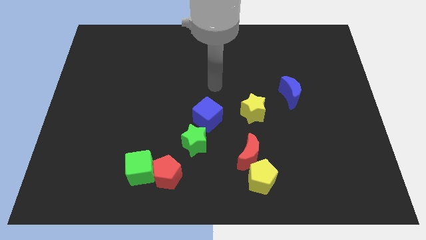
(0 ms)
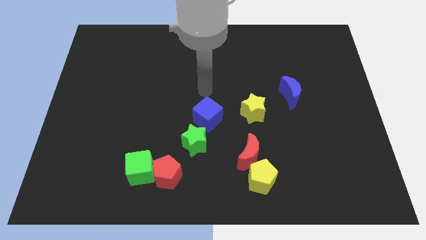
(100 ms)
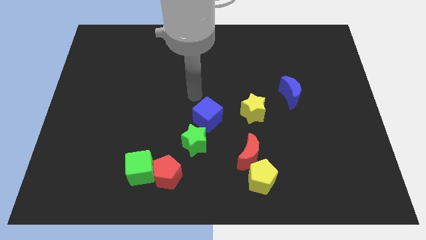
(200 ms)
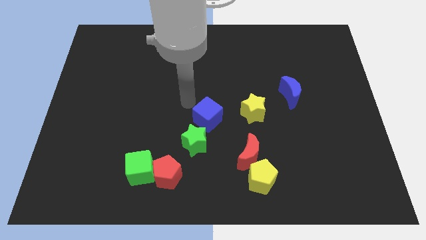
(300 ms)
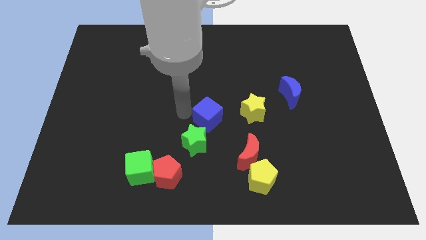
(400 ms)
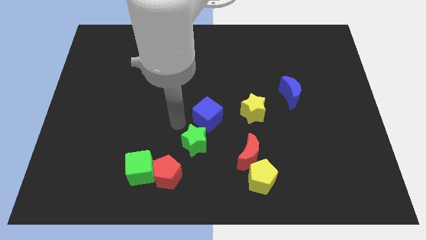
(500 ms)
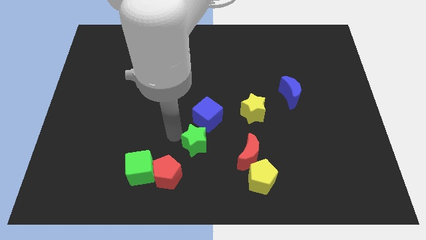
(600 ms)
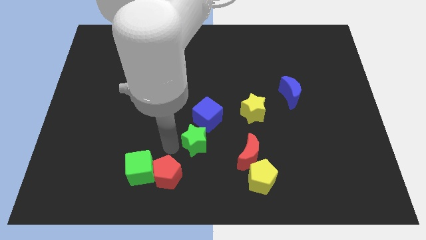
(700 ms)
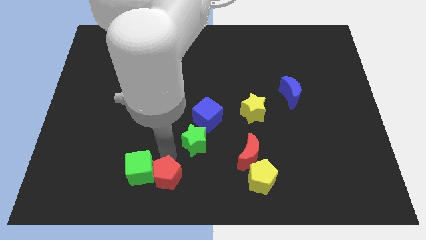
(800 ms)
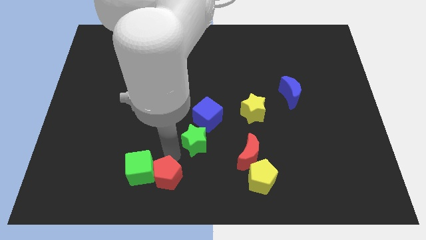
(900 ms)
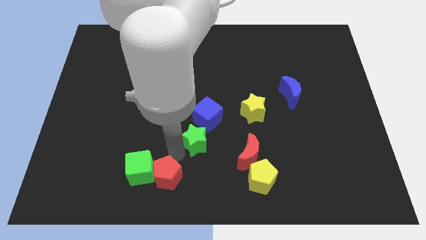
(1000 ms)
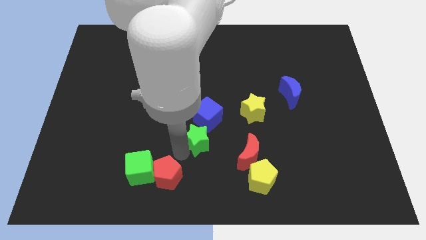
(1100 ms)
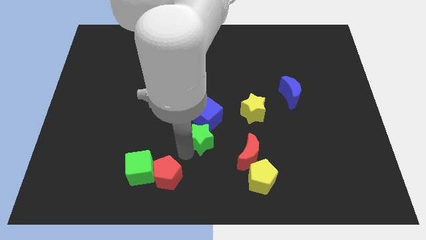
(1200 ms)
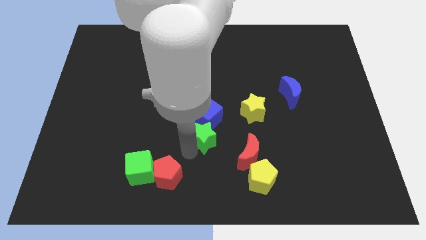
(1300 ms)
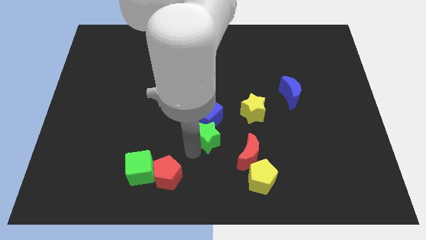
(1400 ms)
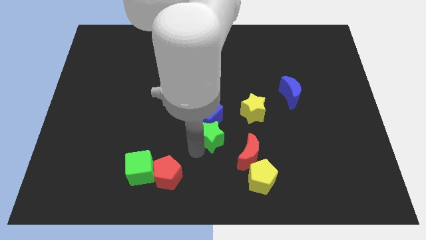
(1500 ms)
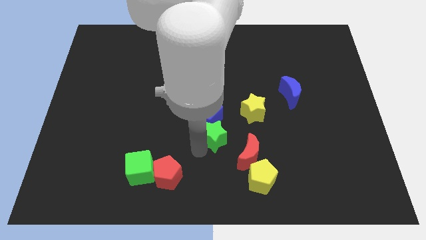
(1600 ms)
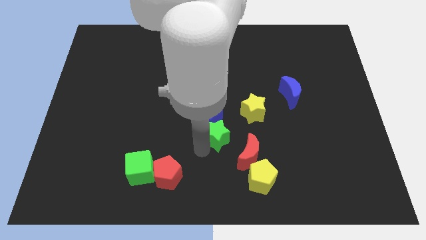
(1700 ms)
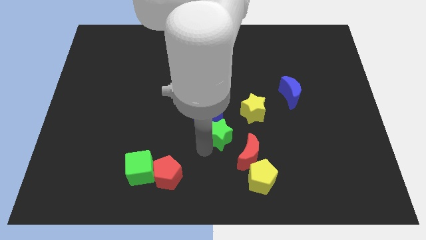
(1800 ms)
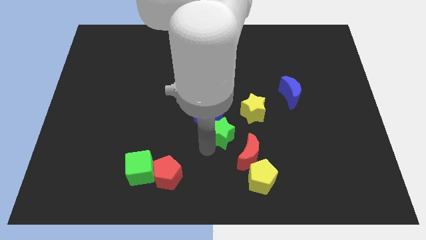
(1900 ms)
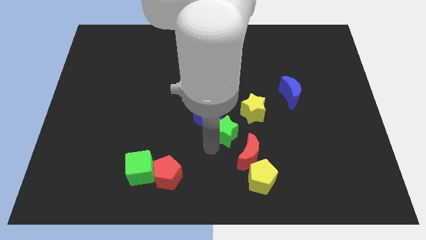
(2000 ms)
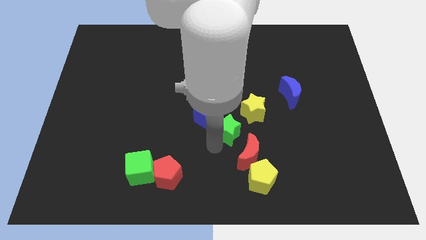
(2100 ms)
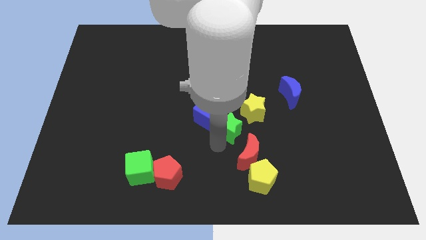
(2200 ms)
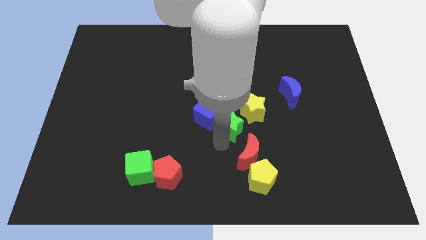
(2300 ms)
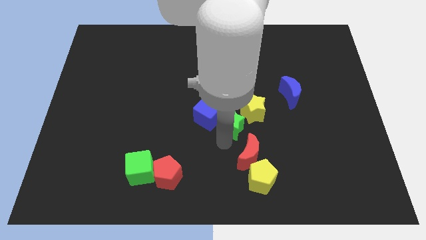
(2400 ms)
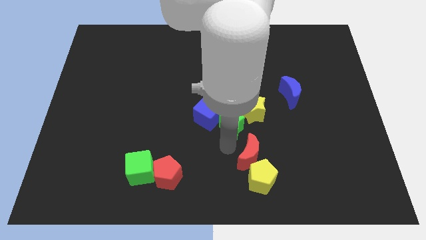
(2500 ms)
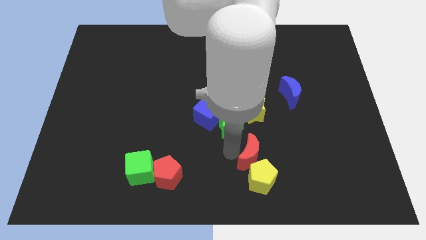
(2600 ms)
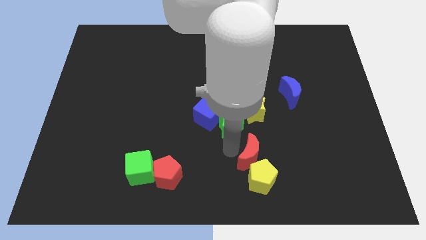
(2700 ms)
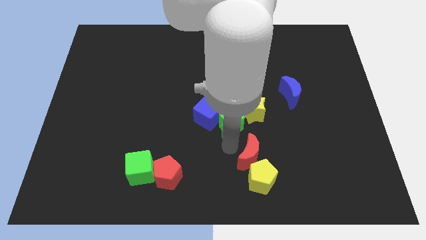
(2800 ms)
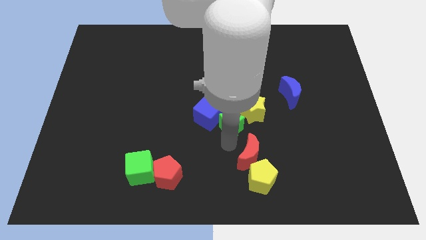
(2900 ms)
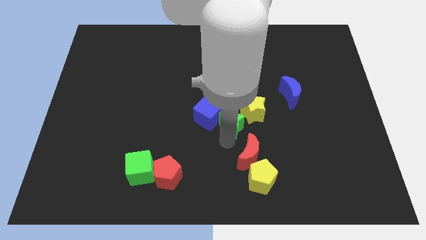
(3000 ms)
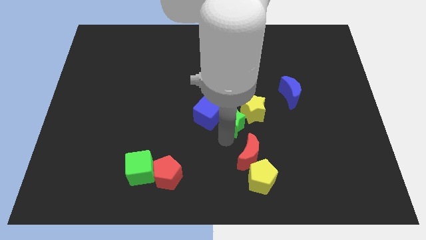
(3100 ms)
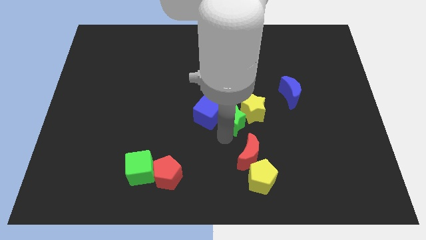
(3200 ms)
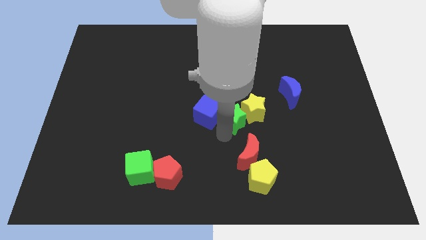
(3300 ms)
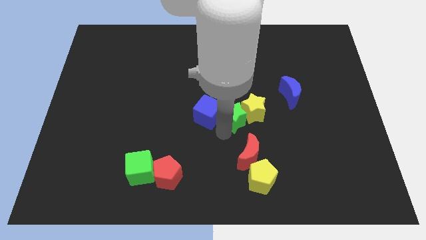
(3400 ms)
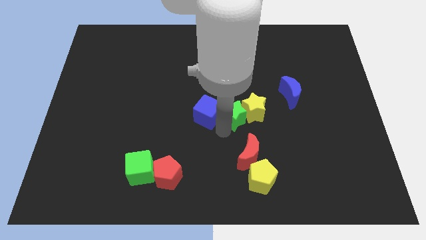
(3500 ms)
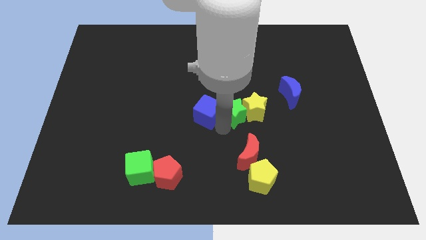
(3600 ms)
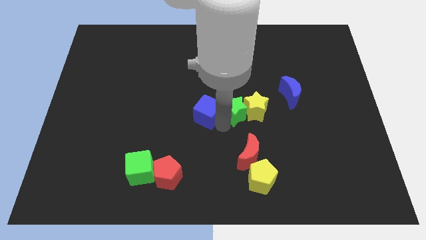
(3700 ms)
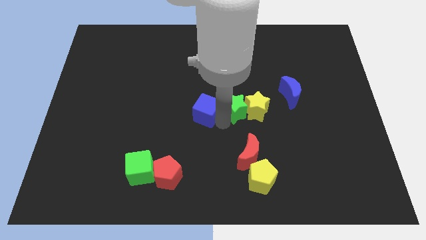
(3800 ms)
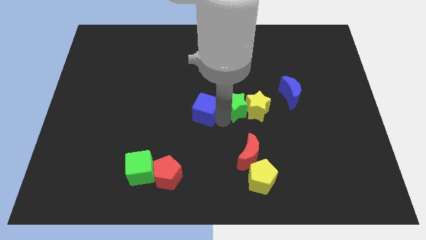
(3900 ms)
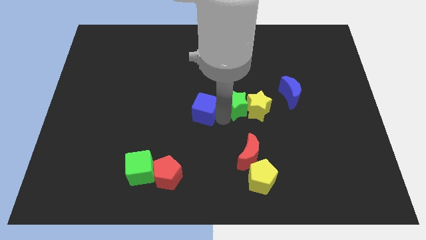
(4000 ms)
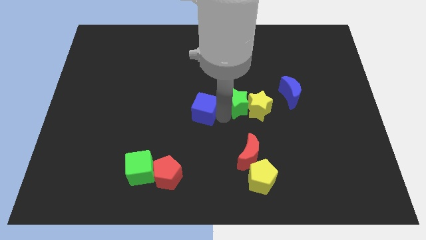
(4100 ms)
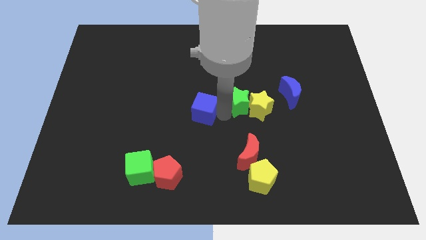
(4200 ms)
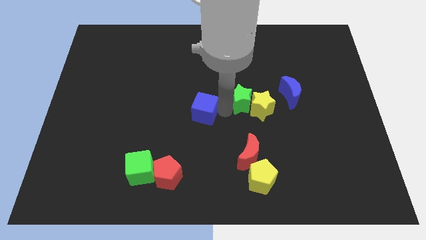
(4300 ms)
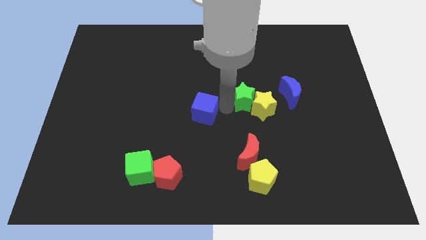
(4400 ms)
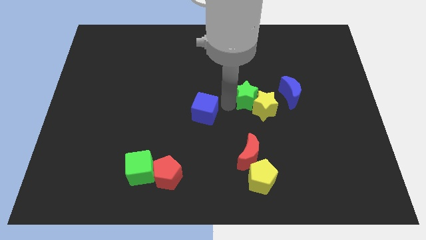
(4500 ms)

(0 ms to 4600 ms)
slide the green star to the top of the yellow star

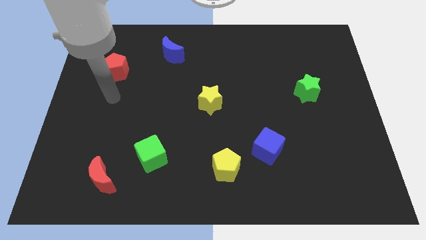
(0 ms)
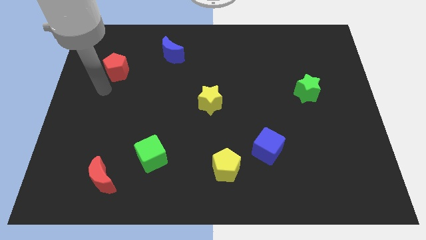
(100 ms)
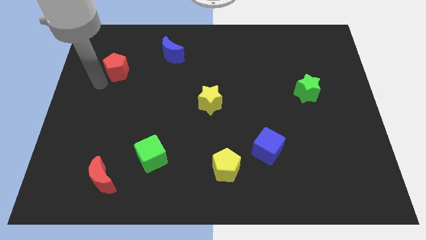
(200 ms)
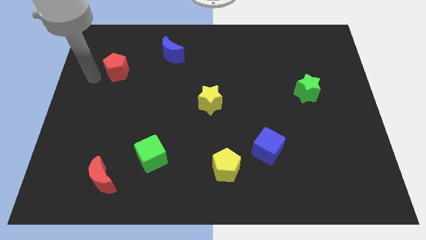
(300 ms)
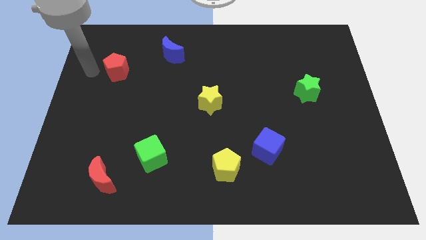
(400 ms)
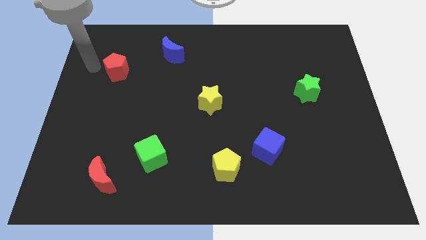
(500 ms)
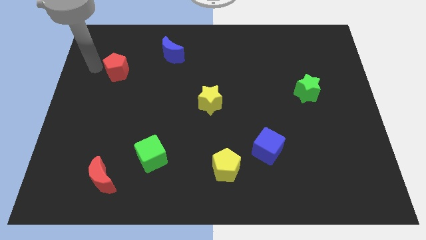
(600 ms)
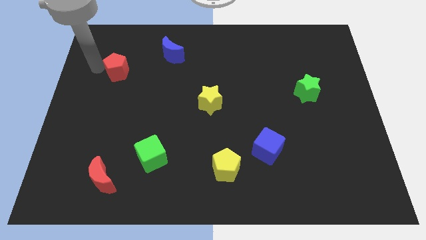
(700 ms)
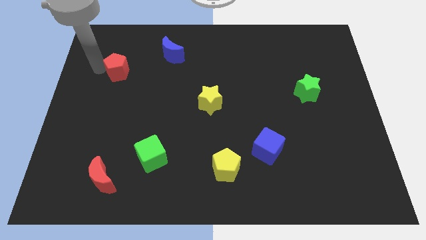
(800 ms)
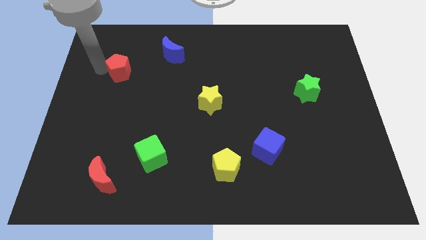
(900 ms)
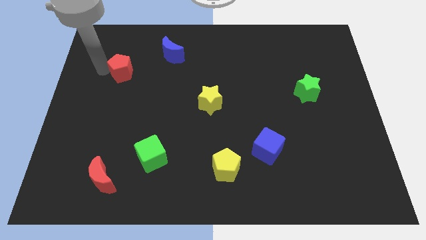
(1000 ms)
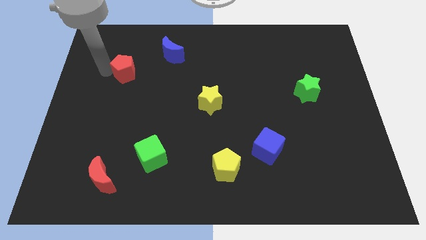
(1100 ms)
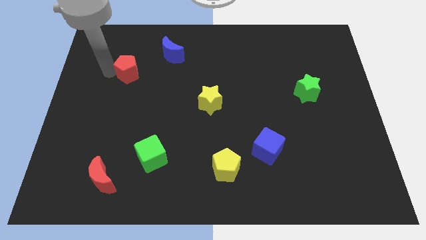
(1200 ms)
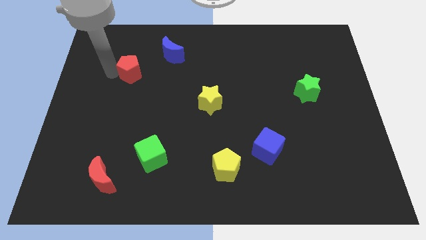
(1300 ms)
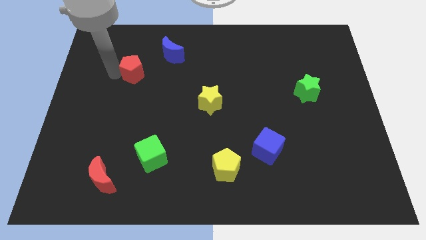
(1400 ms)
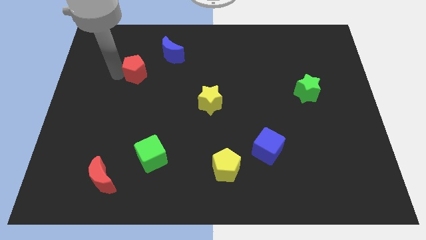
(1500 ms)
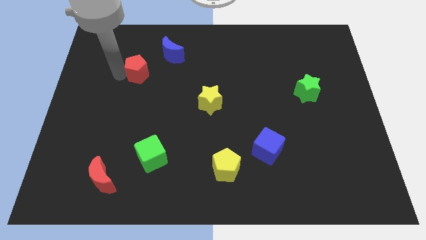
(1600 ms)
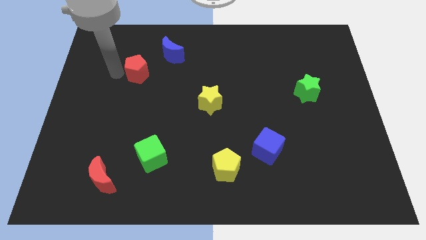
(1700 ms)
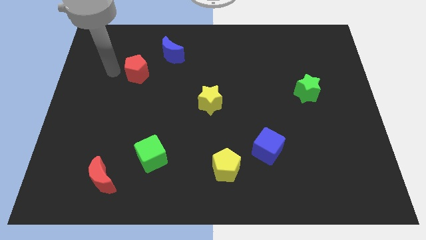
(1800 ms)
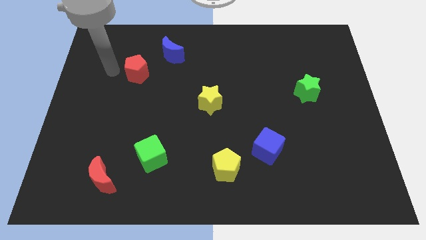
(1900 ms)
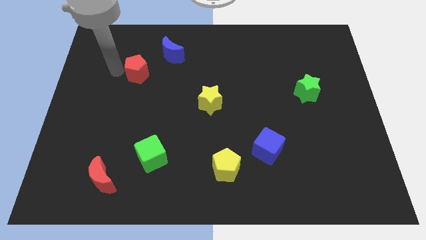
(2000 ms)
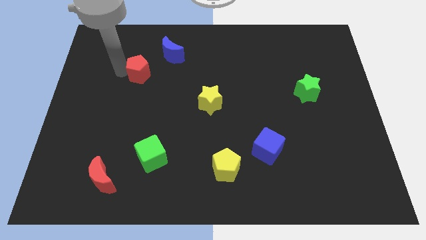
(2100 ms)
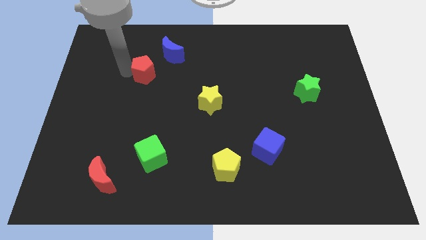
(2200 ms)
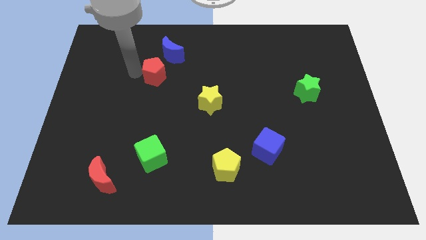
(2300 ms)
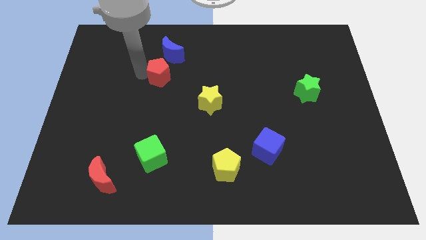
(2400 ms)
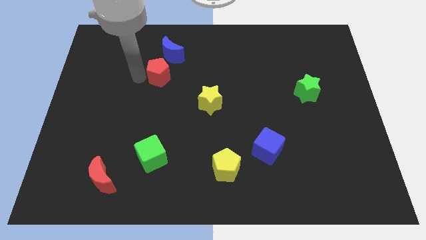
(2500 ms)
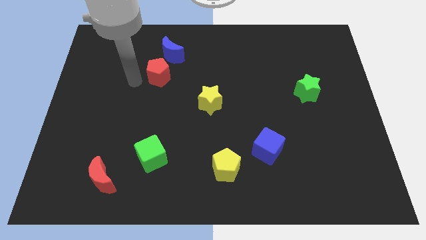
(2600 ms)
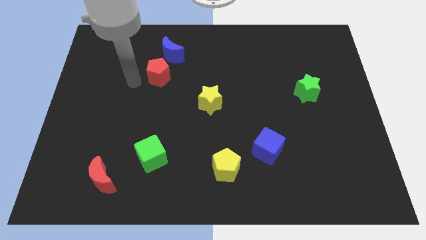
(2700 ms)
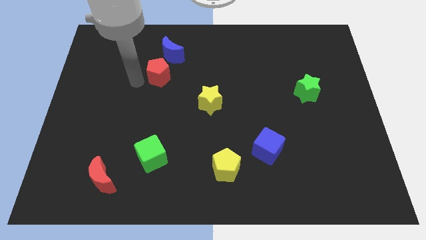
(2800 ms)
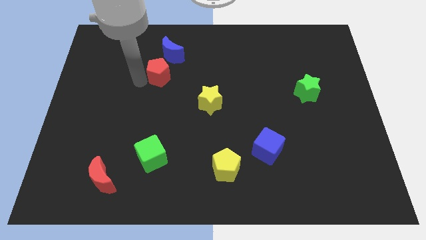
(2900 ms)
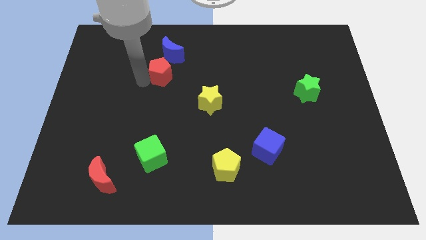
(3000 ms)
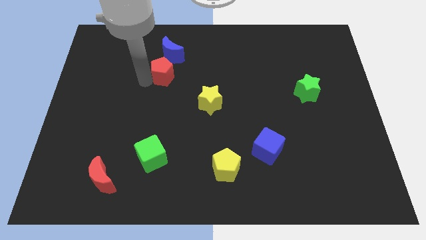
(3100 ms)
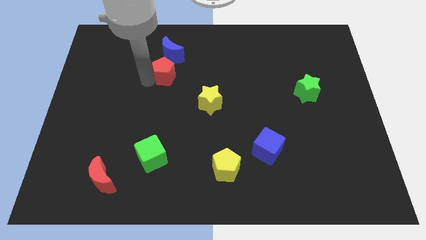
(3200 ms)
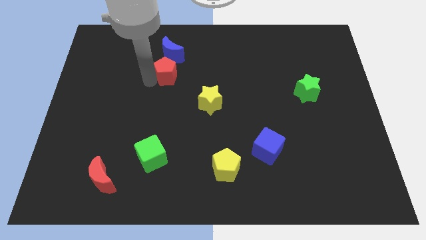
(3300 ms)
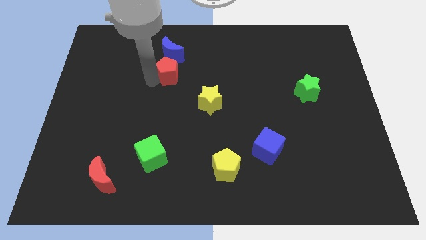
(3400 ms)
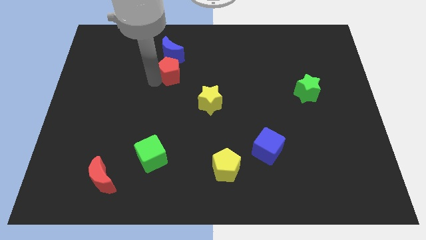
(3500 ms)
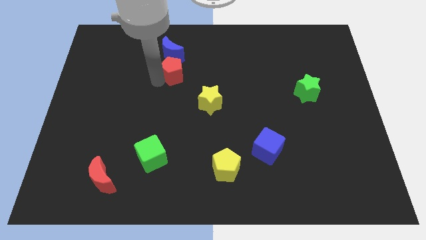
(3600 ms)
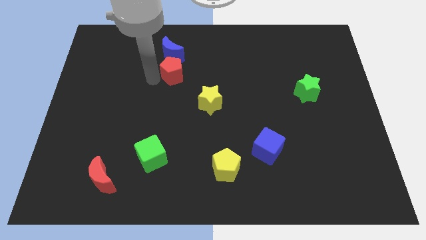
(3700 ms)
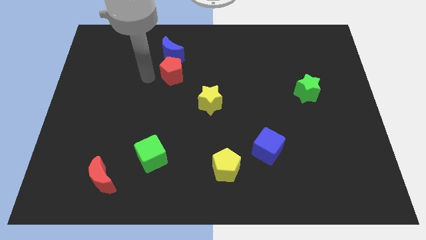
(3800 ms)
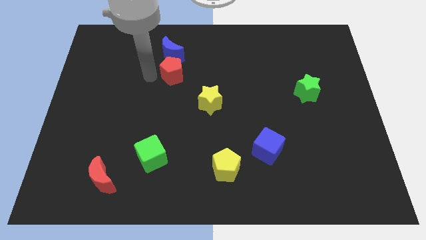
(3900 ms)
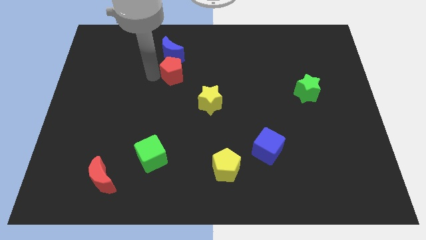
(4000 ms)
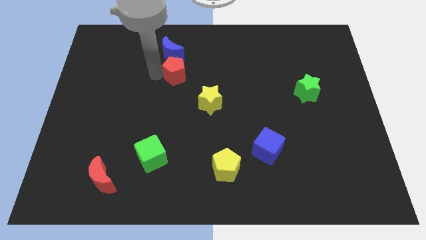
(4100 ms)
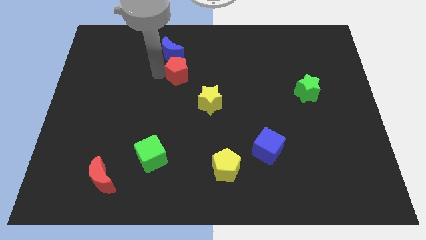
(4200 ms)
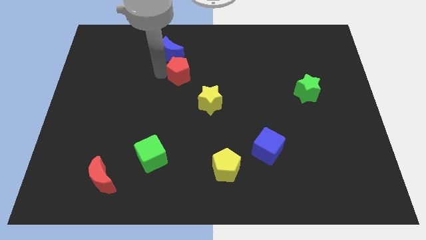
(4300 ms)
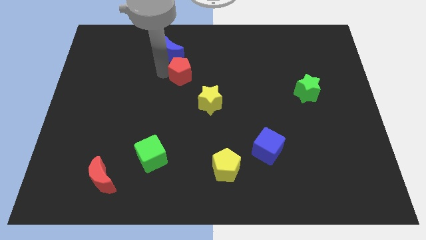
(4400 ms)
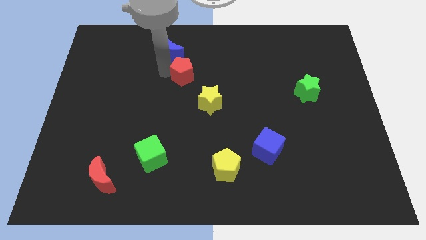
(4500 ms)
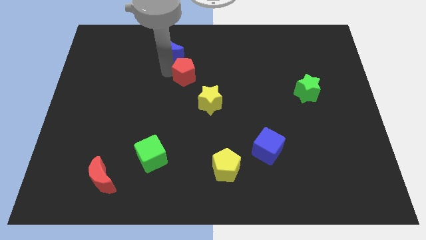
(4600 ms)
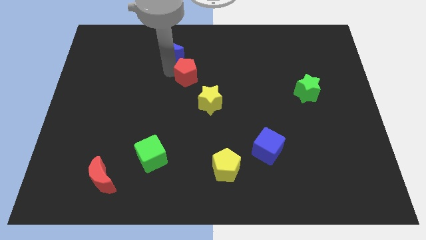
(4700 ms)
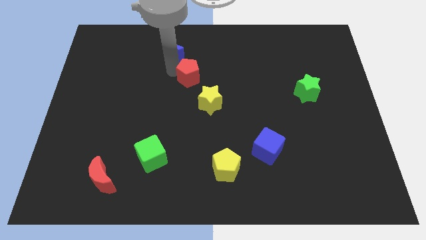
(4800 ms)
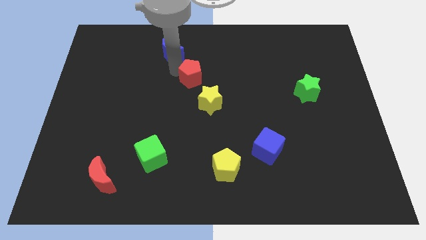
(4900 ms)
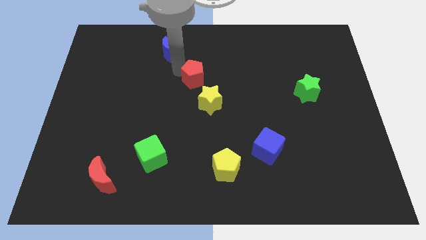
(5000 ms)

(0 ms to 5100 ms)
push the red pentagon above the yellow star
